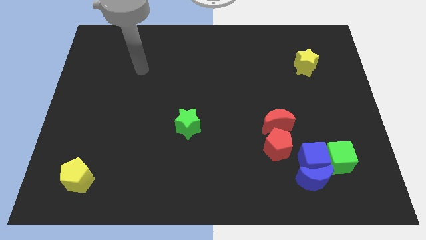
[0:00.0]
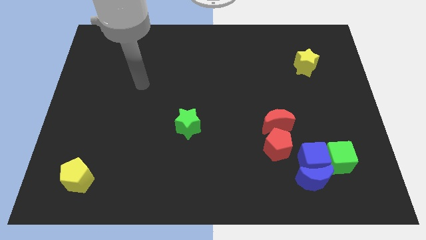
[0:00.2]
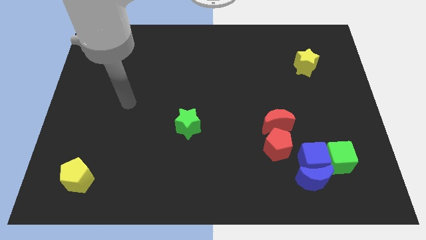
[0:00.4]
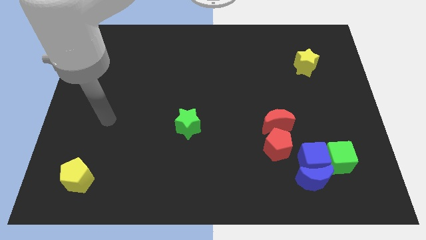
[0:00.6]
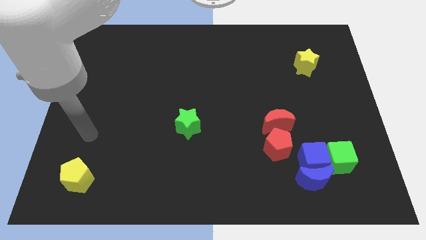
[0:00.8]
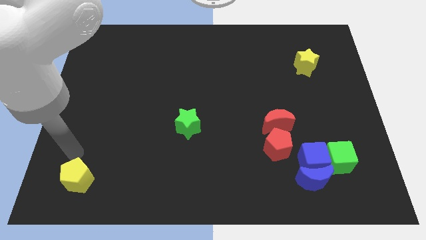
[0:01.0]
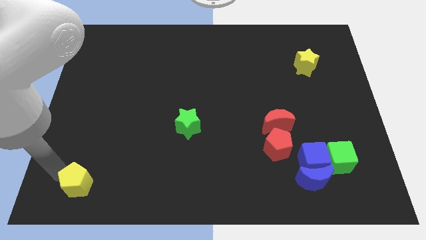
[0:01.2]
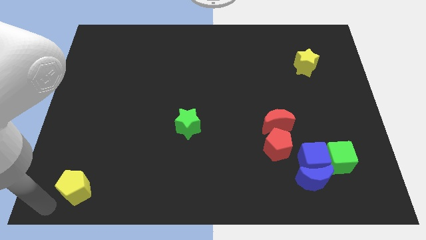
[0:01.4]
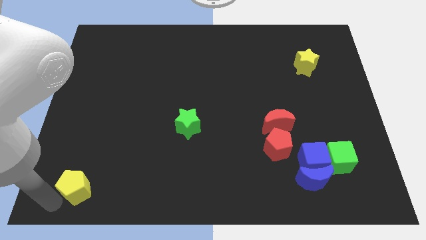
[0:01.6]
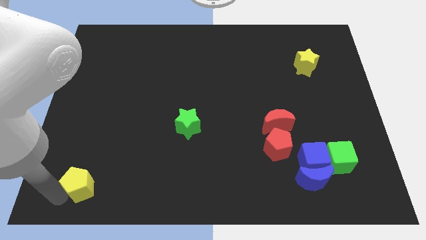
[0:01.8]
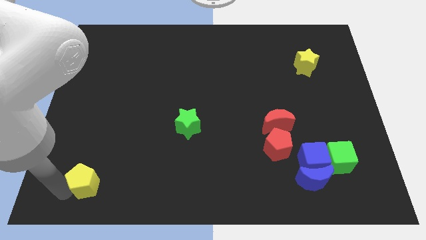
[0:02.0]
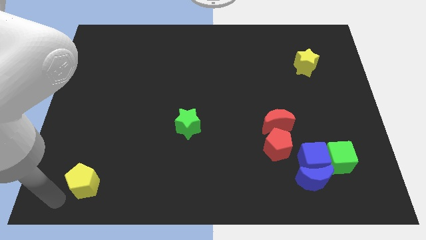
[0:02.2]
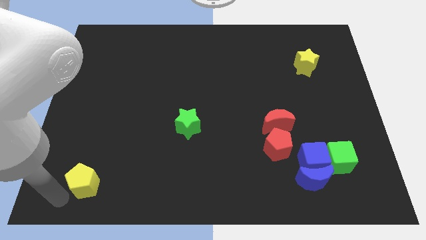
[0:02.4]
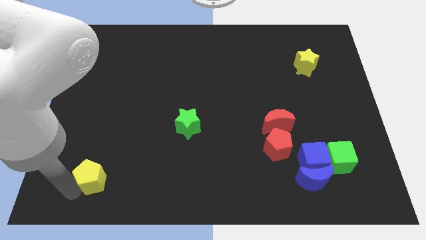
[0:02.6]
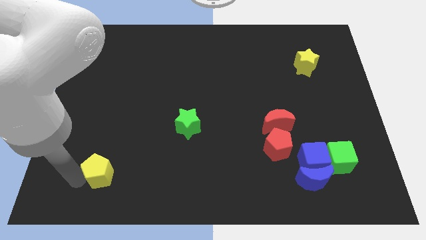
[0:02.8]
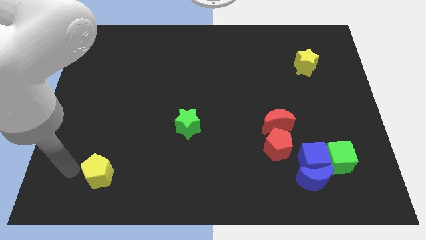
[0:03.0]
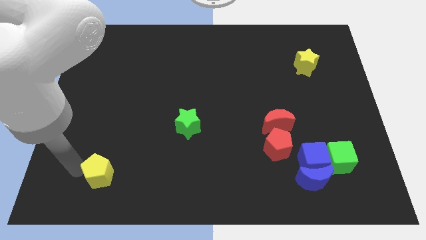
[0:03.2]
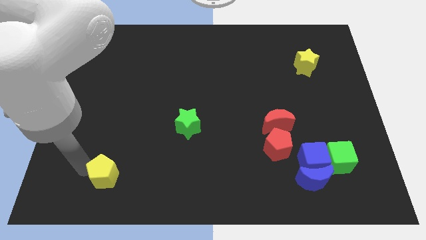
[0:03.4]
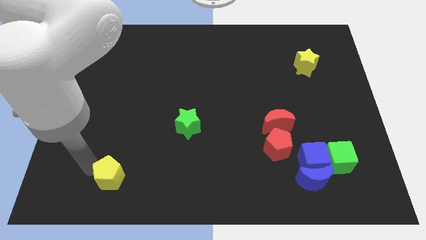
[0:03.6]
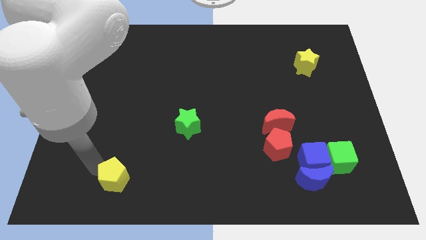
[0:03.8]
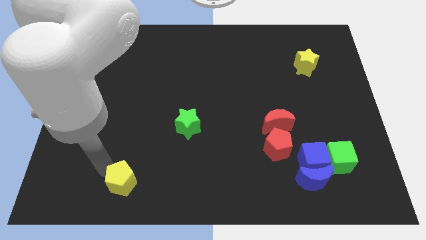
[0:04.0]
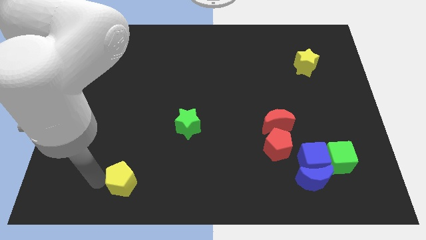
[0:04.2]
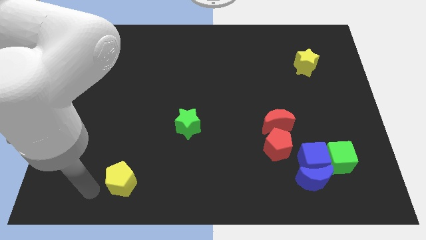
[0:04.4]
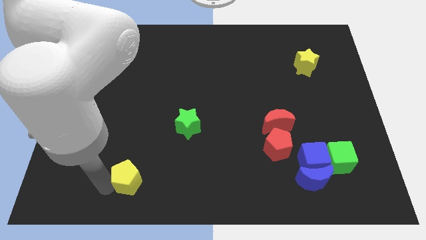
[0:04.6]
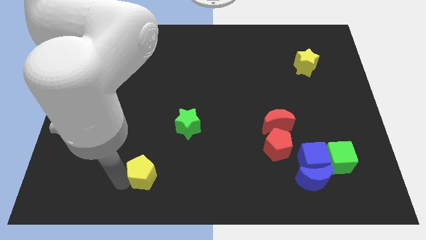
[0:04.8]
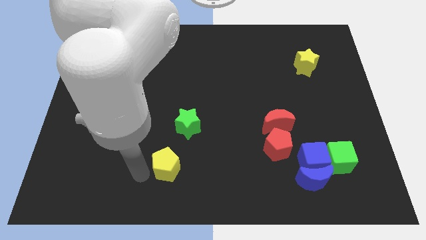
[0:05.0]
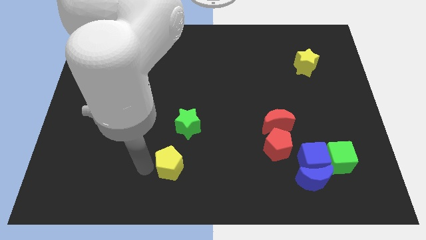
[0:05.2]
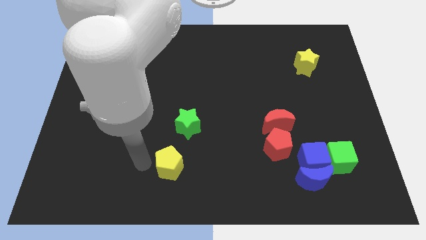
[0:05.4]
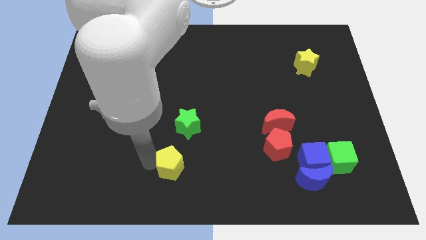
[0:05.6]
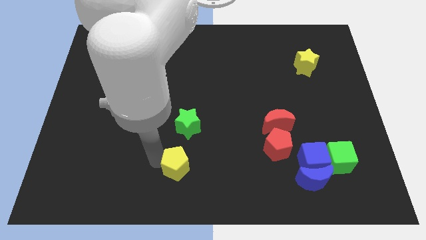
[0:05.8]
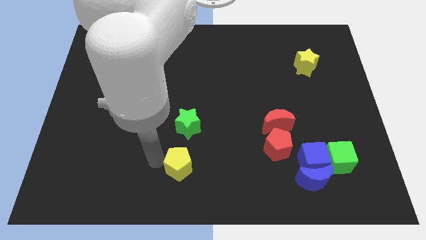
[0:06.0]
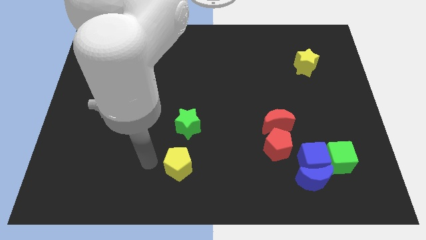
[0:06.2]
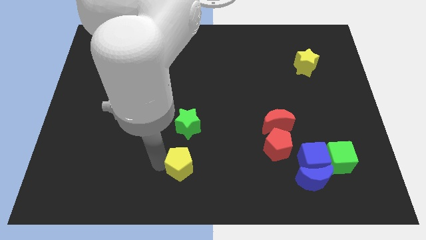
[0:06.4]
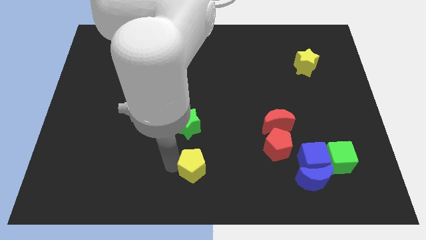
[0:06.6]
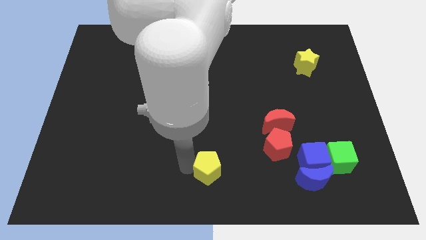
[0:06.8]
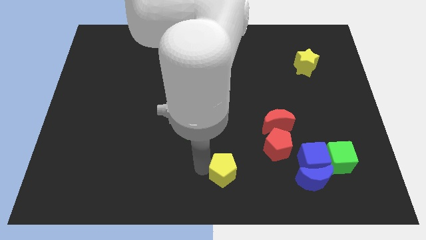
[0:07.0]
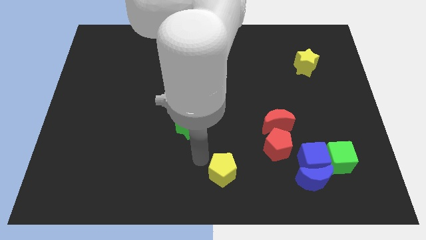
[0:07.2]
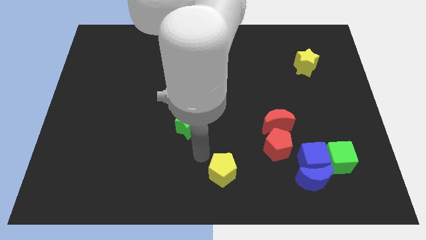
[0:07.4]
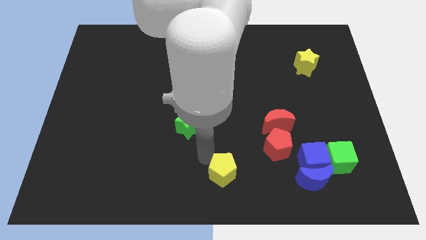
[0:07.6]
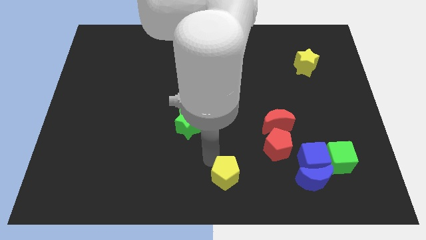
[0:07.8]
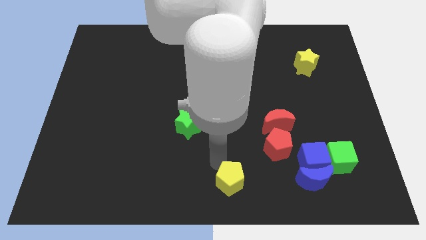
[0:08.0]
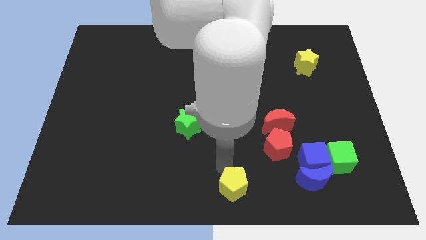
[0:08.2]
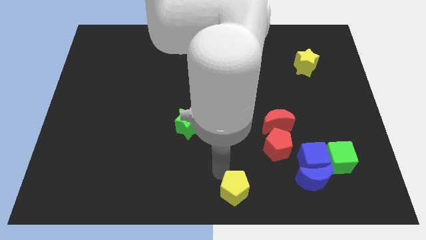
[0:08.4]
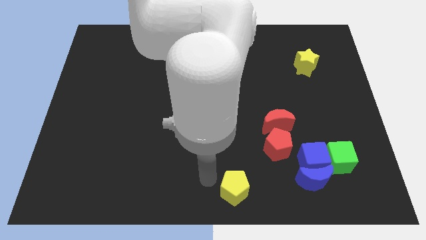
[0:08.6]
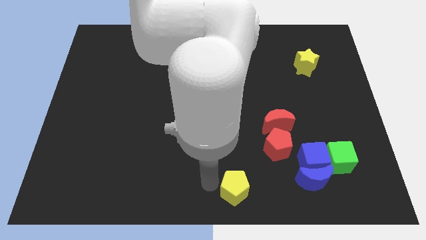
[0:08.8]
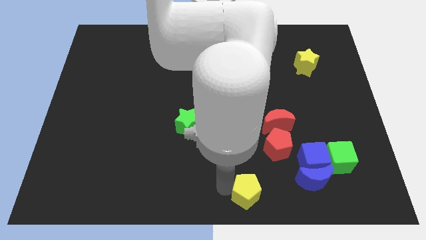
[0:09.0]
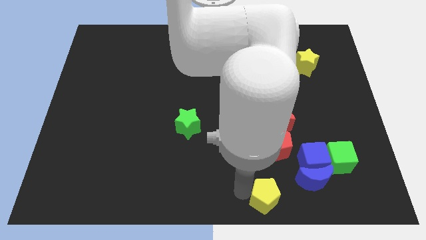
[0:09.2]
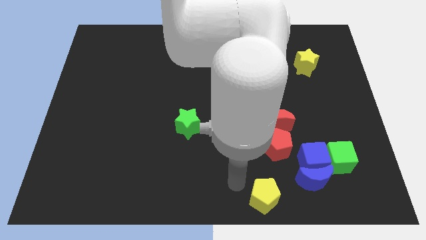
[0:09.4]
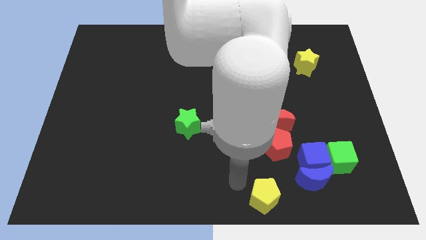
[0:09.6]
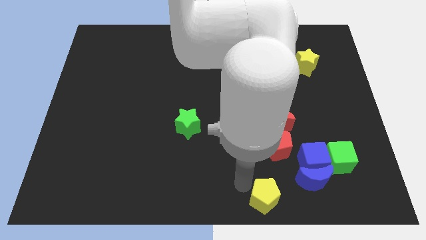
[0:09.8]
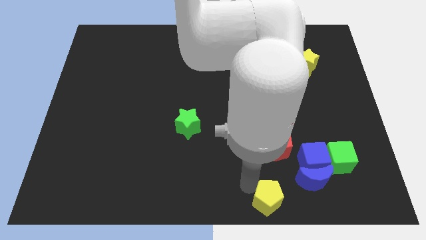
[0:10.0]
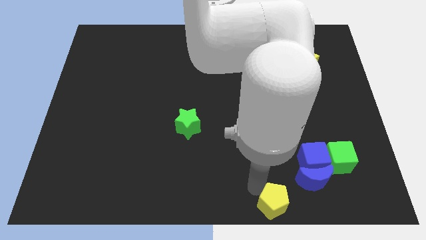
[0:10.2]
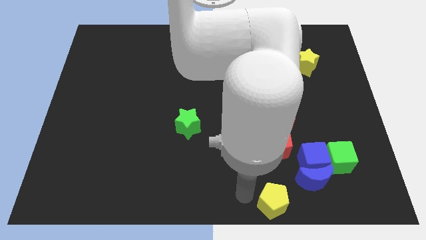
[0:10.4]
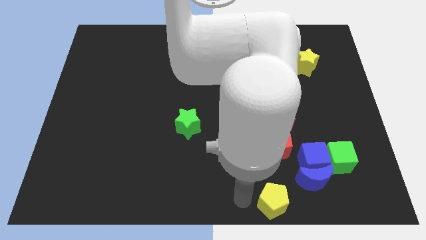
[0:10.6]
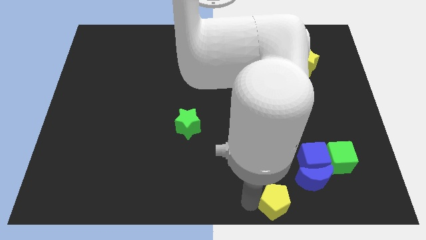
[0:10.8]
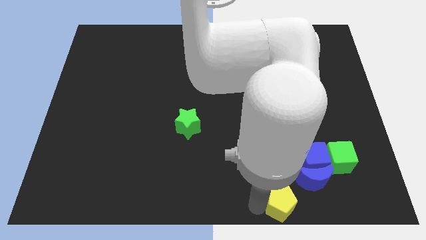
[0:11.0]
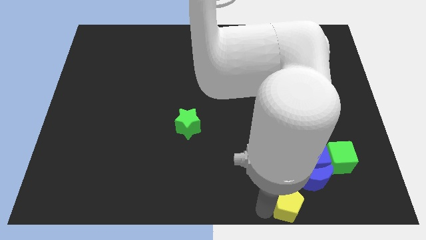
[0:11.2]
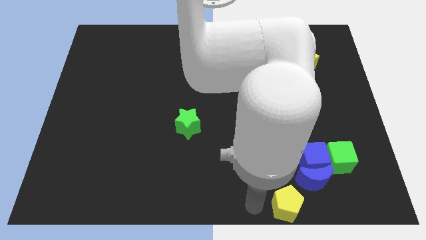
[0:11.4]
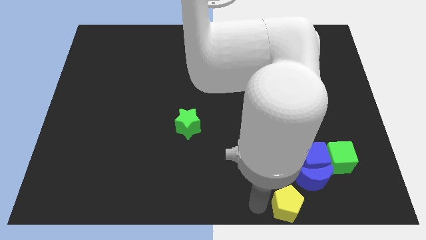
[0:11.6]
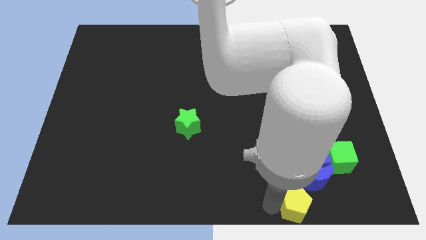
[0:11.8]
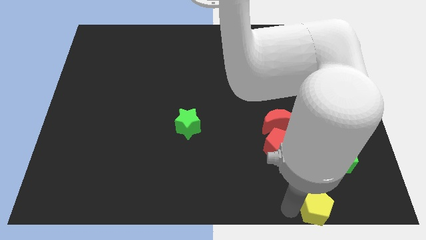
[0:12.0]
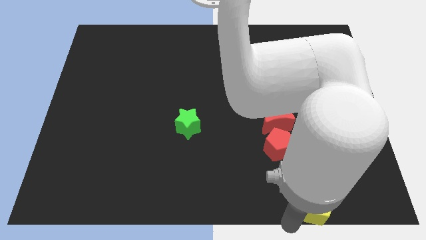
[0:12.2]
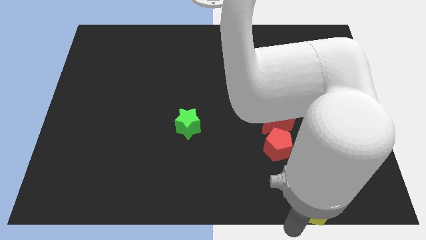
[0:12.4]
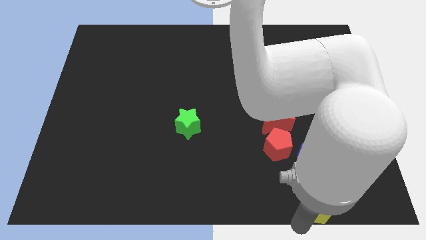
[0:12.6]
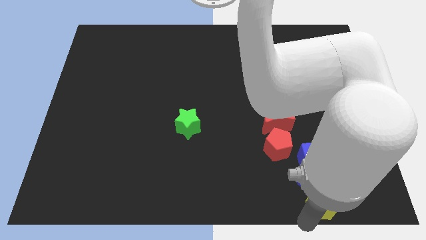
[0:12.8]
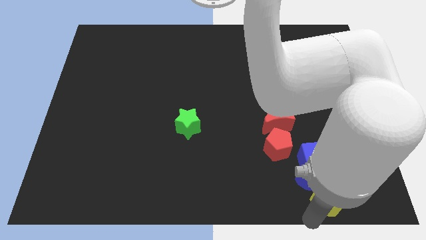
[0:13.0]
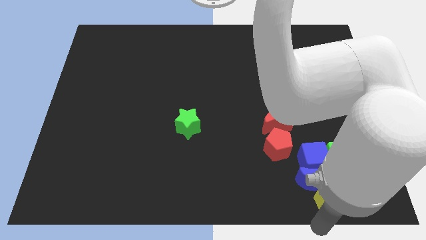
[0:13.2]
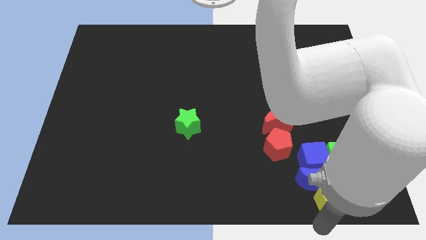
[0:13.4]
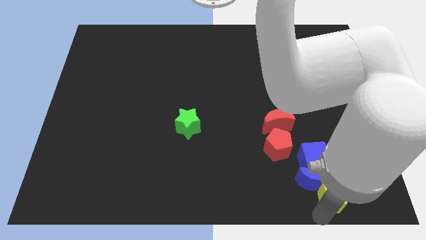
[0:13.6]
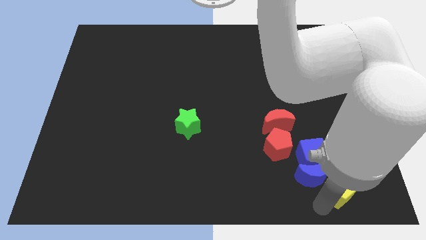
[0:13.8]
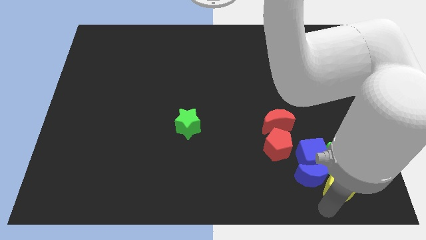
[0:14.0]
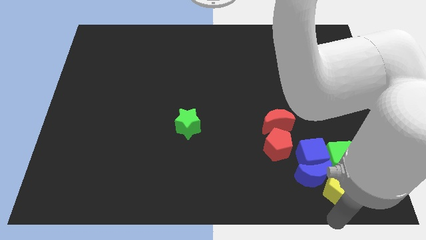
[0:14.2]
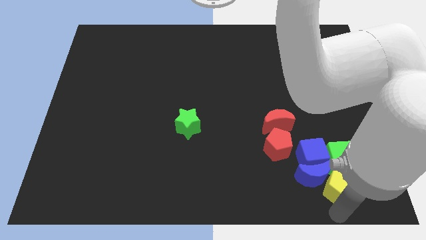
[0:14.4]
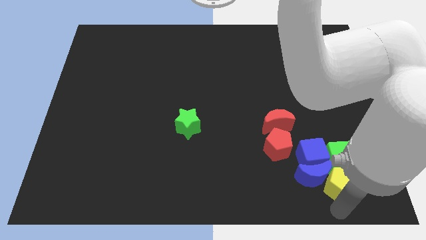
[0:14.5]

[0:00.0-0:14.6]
slide the yellow pentagon next to the green cube
